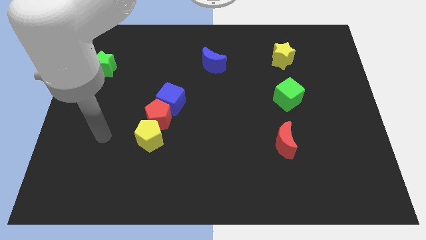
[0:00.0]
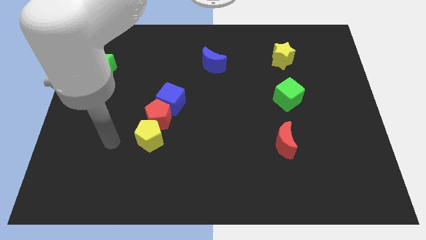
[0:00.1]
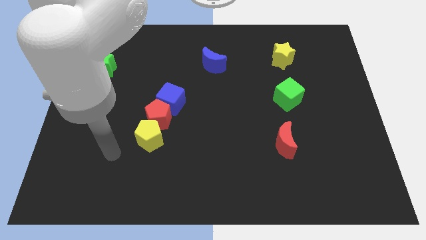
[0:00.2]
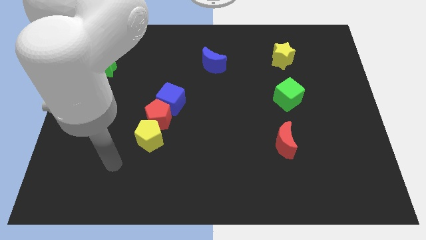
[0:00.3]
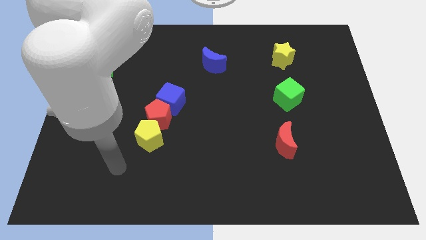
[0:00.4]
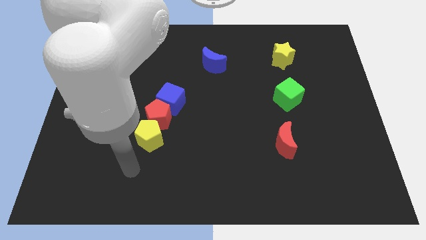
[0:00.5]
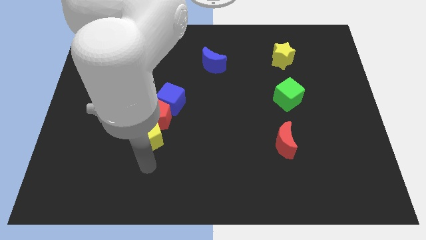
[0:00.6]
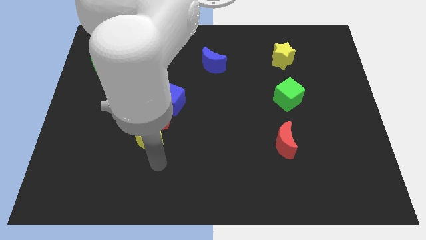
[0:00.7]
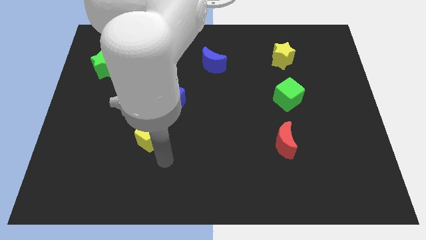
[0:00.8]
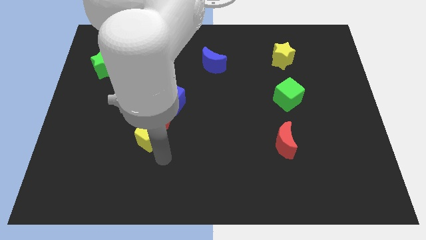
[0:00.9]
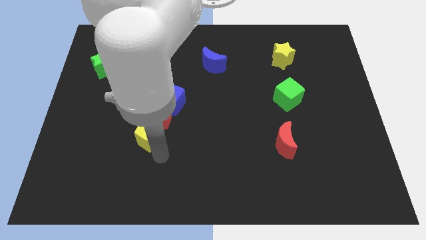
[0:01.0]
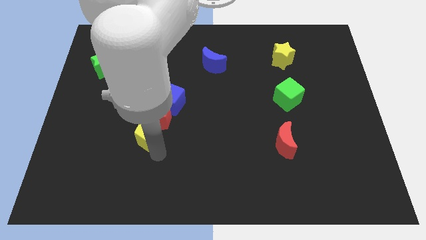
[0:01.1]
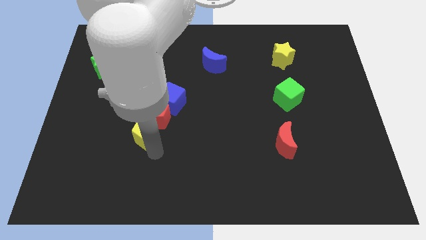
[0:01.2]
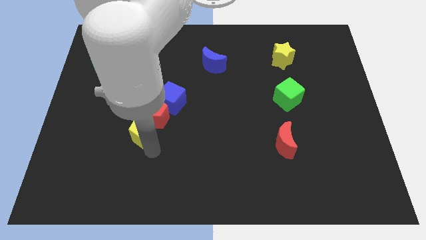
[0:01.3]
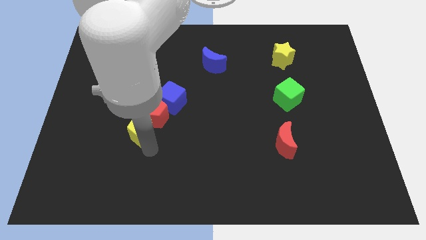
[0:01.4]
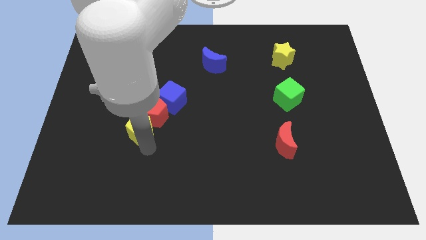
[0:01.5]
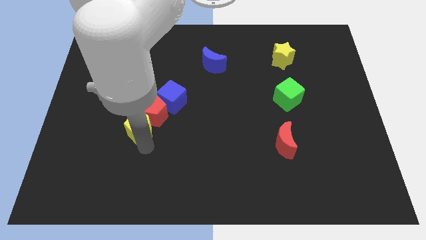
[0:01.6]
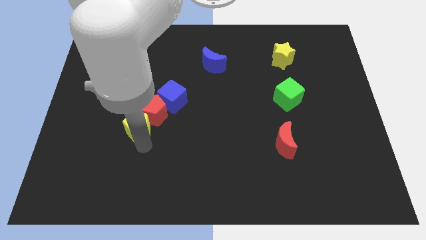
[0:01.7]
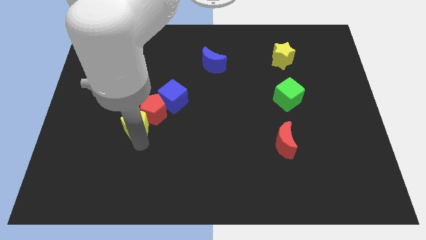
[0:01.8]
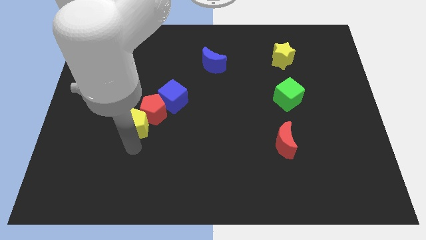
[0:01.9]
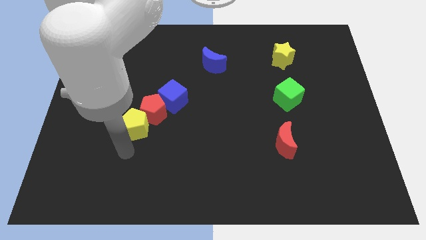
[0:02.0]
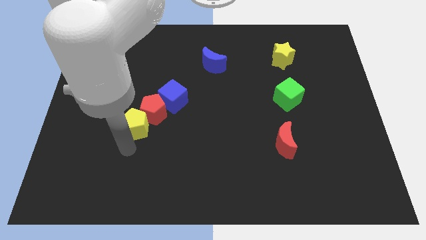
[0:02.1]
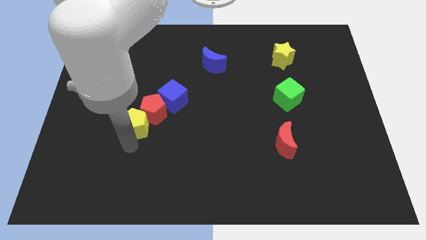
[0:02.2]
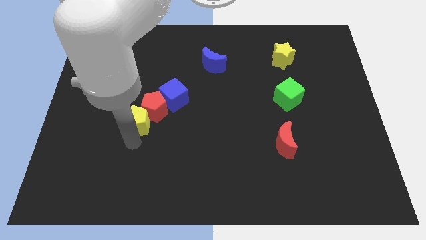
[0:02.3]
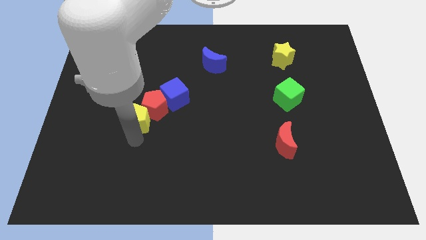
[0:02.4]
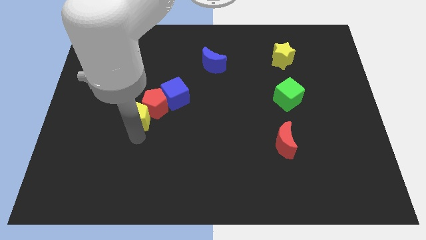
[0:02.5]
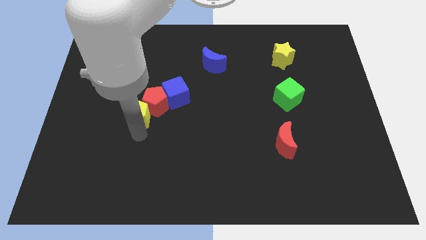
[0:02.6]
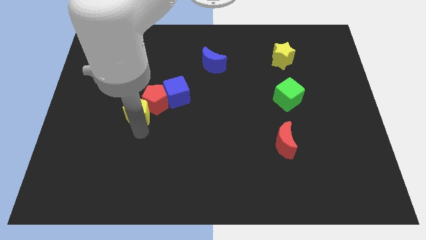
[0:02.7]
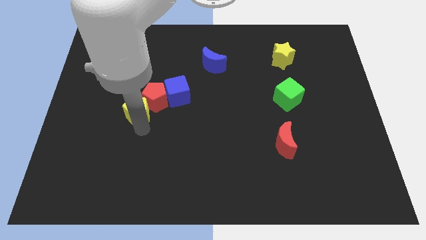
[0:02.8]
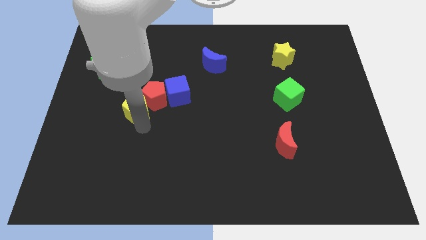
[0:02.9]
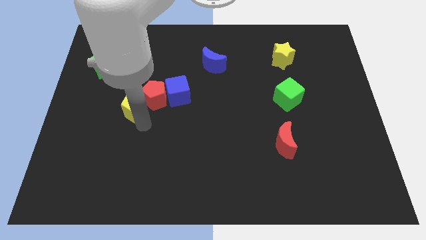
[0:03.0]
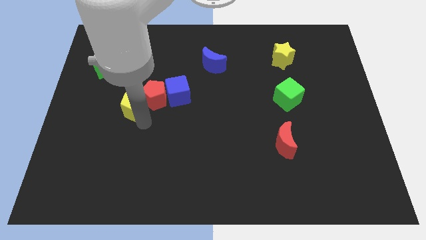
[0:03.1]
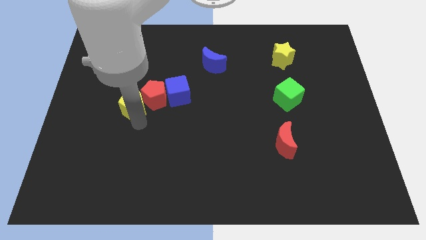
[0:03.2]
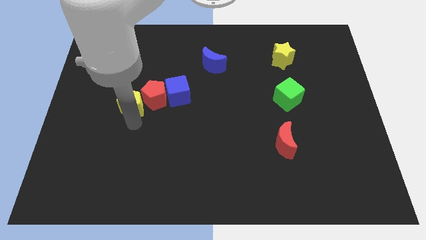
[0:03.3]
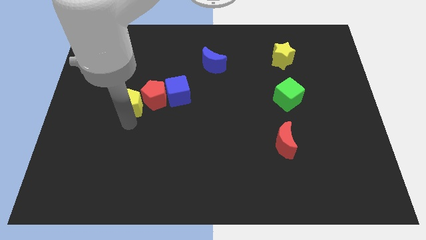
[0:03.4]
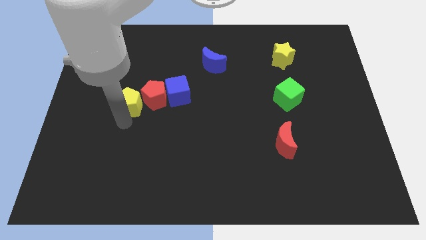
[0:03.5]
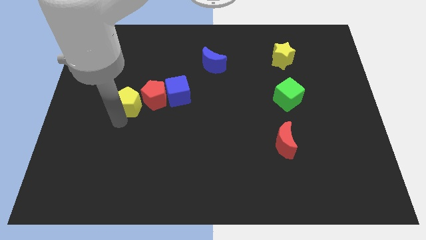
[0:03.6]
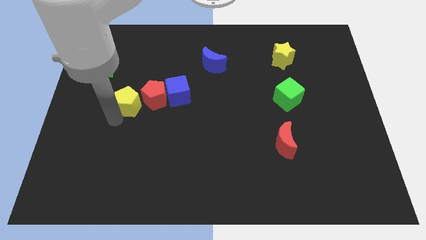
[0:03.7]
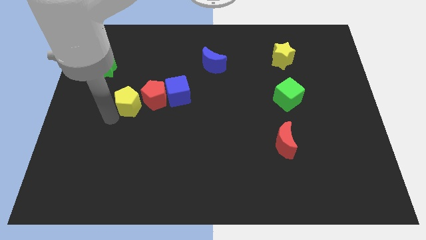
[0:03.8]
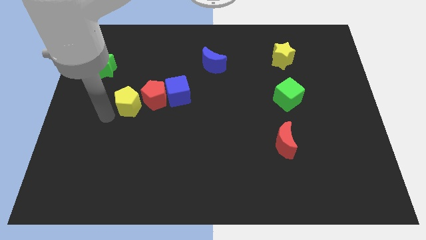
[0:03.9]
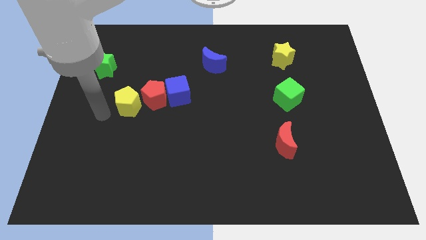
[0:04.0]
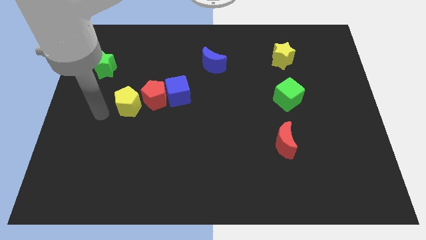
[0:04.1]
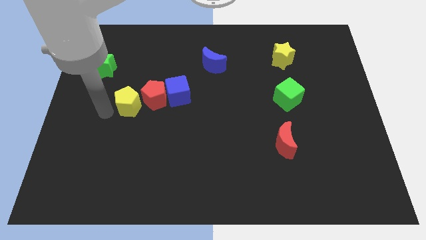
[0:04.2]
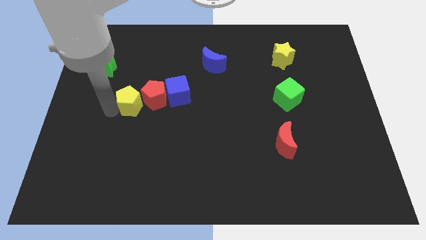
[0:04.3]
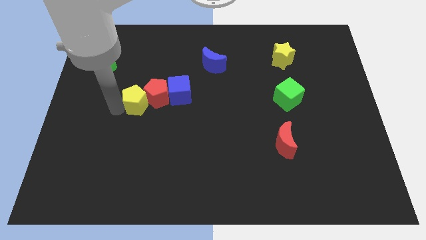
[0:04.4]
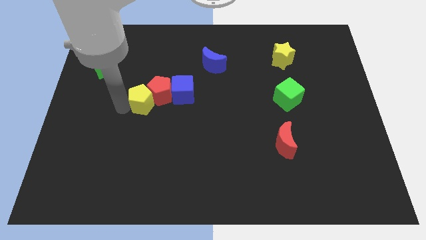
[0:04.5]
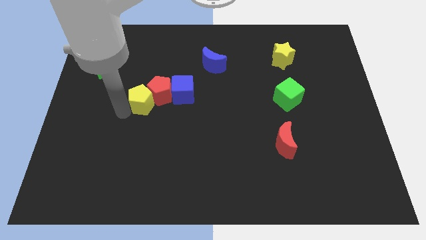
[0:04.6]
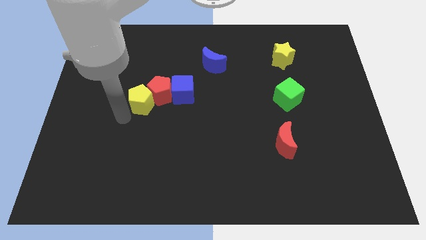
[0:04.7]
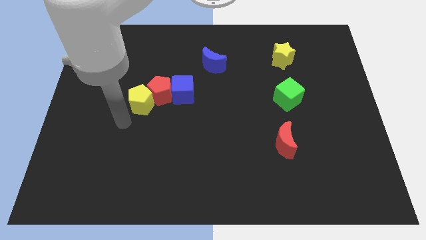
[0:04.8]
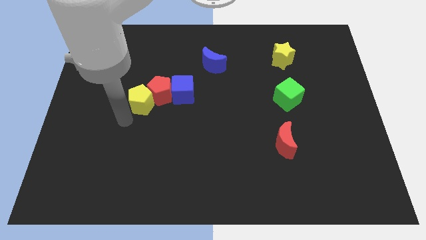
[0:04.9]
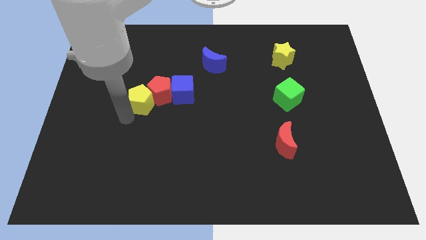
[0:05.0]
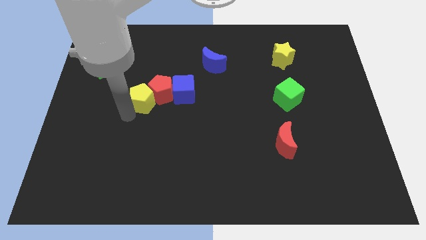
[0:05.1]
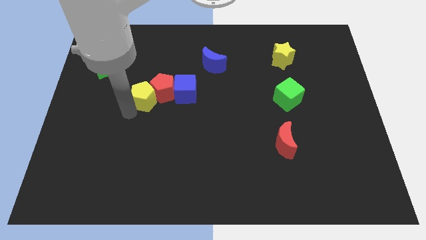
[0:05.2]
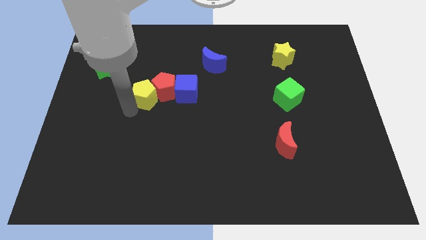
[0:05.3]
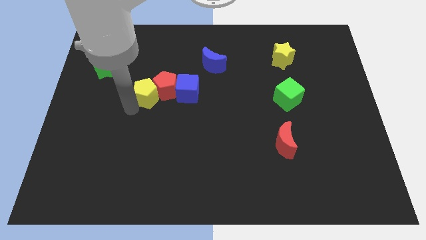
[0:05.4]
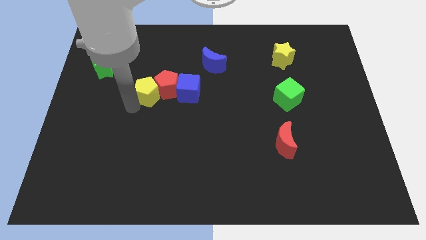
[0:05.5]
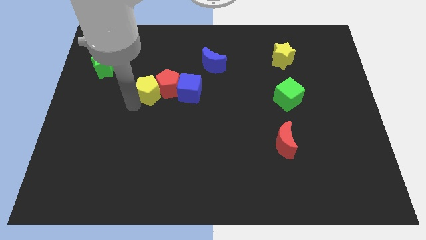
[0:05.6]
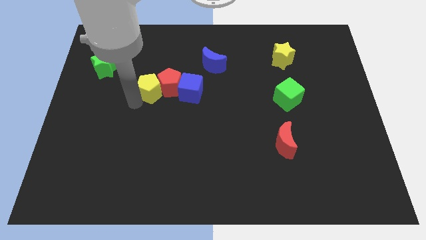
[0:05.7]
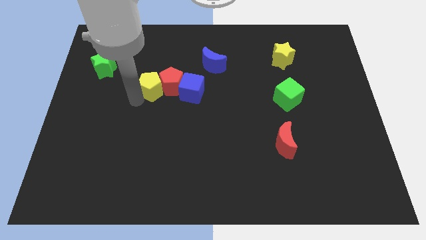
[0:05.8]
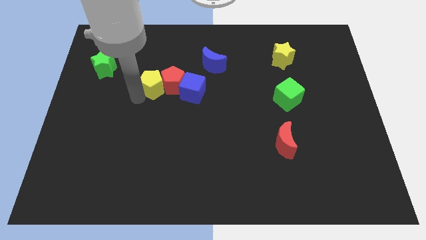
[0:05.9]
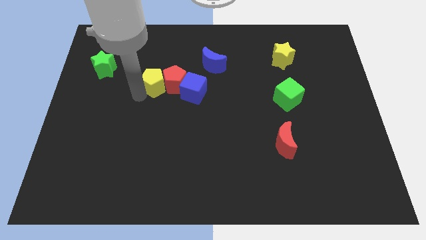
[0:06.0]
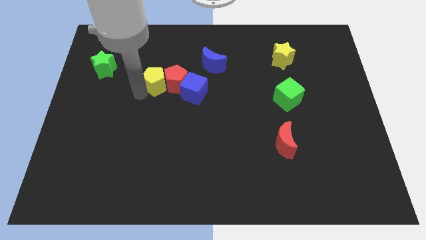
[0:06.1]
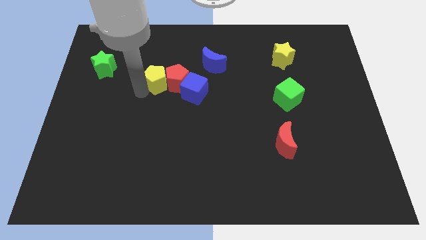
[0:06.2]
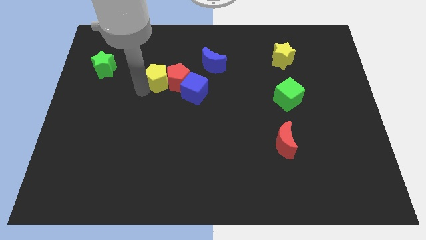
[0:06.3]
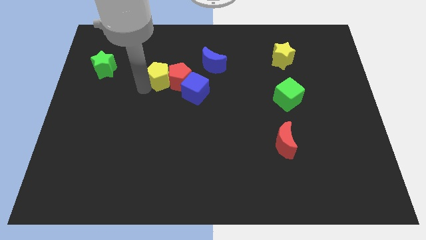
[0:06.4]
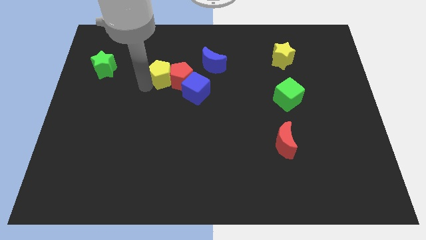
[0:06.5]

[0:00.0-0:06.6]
slide the yellow pentagon left of the blue moon
